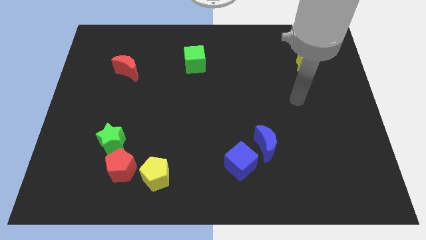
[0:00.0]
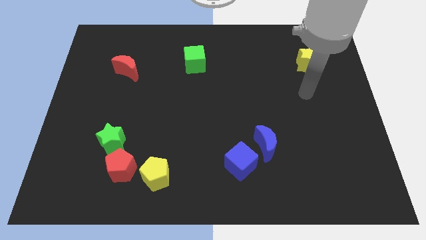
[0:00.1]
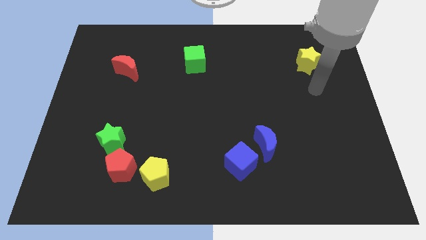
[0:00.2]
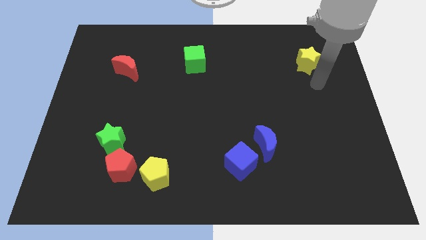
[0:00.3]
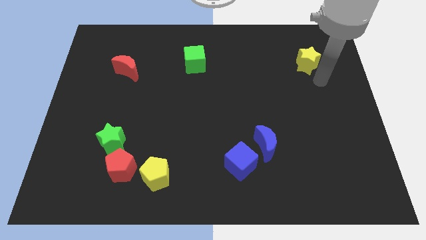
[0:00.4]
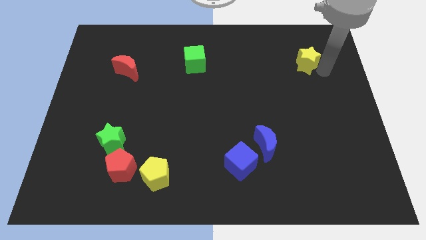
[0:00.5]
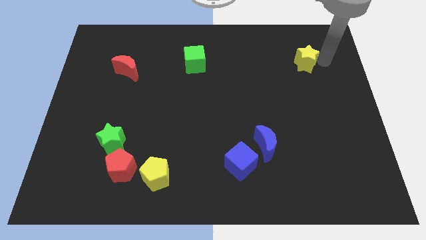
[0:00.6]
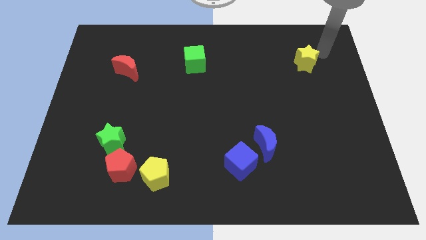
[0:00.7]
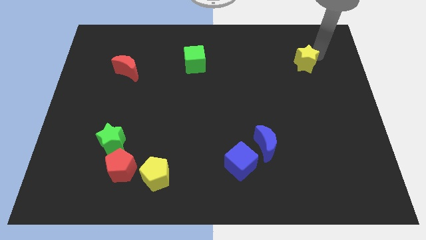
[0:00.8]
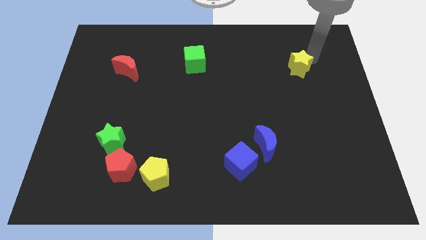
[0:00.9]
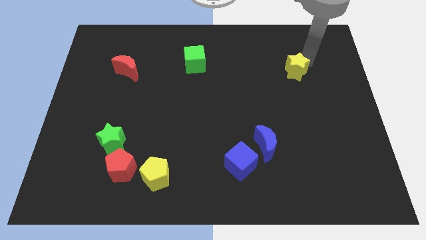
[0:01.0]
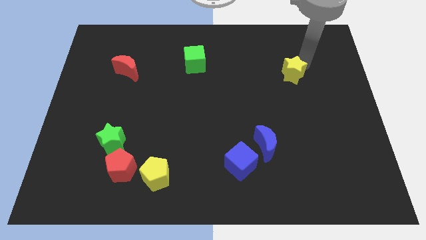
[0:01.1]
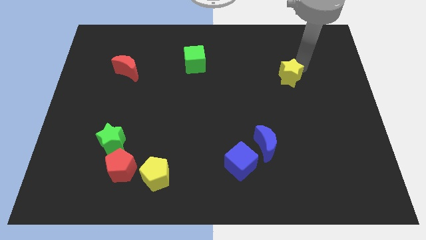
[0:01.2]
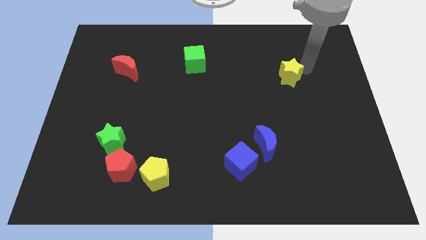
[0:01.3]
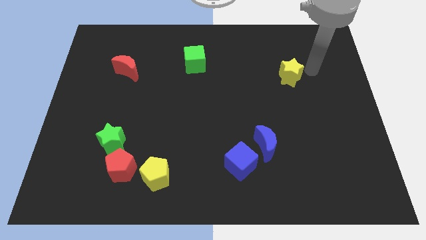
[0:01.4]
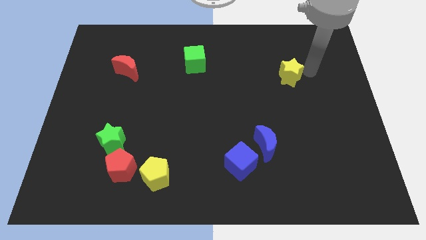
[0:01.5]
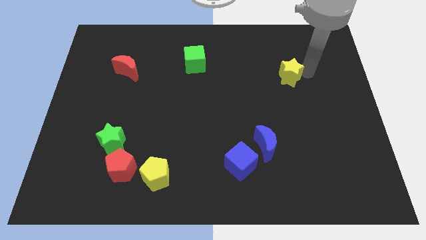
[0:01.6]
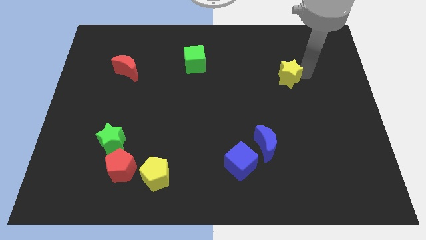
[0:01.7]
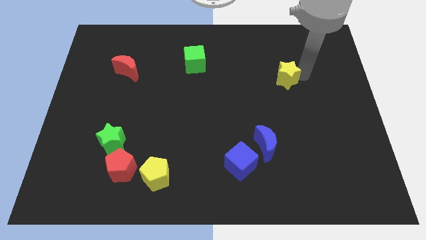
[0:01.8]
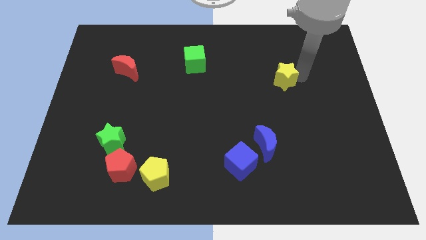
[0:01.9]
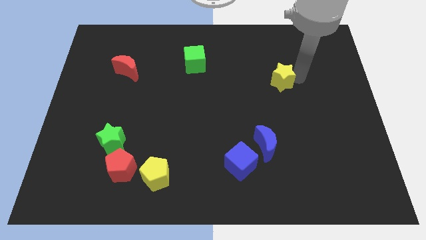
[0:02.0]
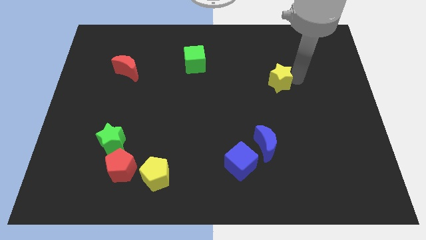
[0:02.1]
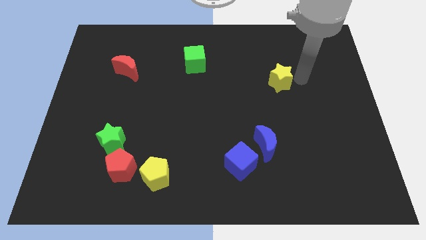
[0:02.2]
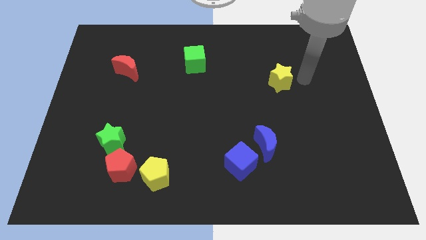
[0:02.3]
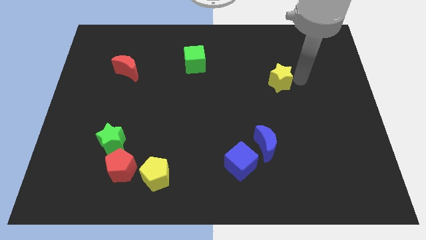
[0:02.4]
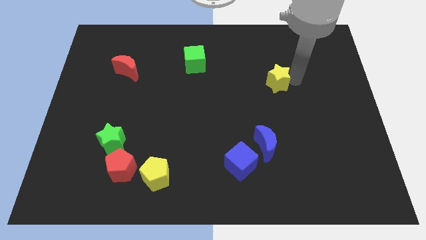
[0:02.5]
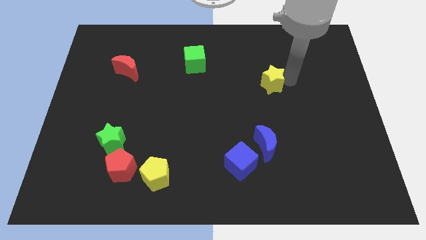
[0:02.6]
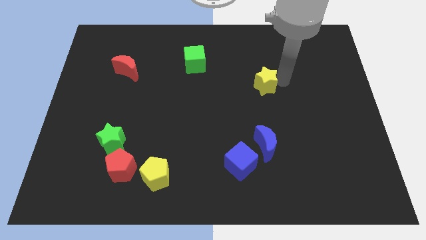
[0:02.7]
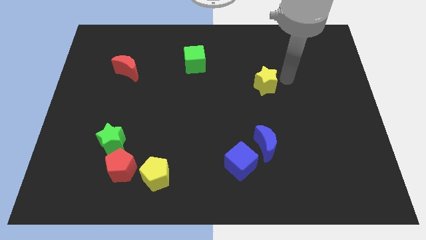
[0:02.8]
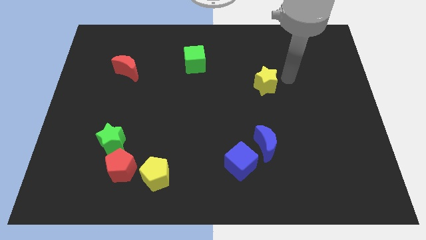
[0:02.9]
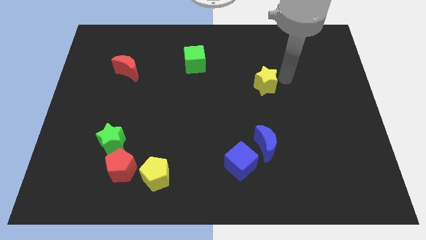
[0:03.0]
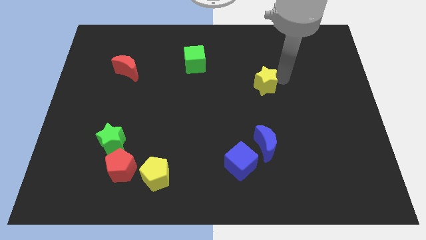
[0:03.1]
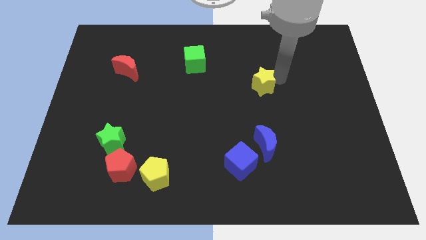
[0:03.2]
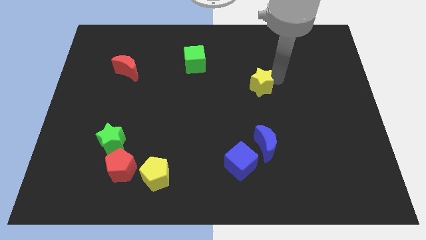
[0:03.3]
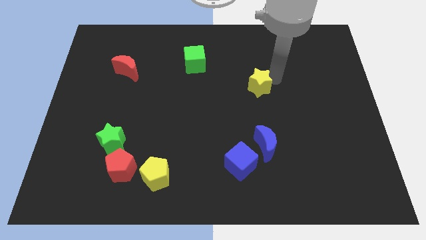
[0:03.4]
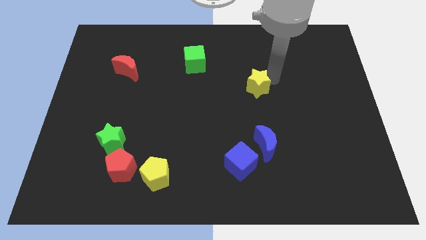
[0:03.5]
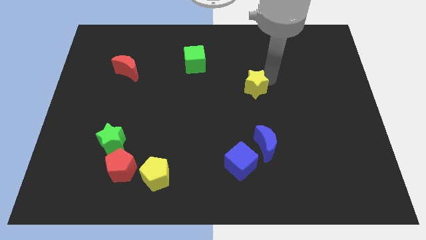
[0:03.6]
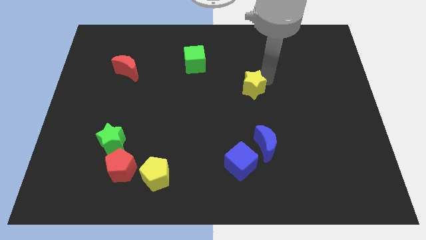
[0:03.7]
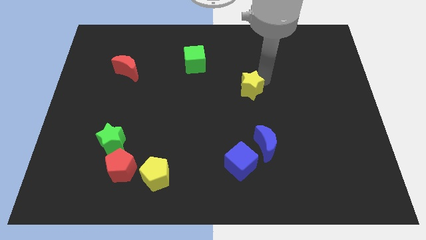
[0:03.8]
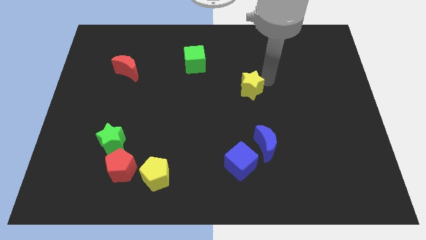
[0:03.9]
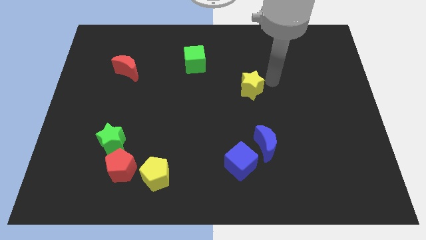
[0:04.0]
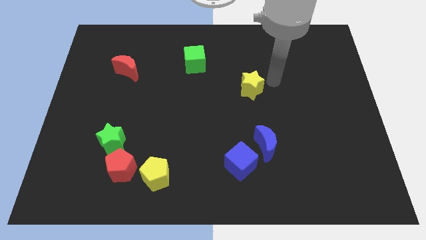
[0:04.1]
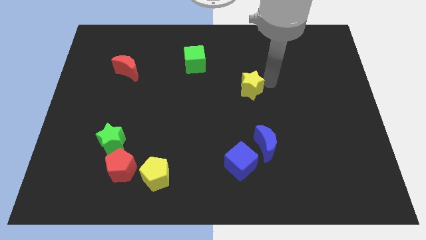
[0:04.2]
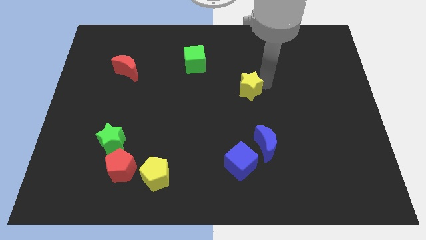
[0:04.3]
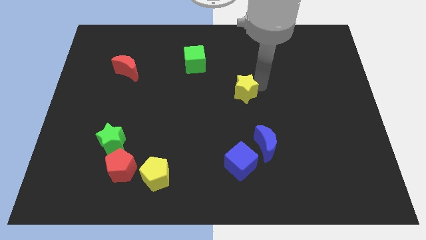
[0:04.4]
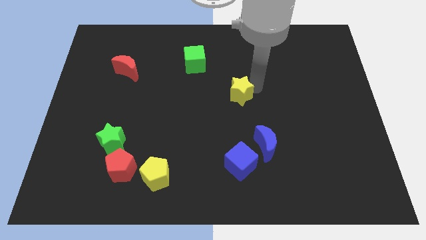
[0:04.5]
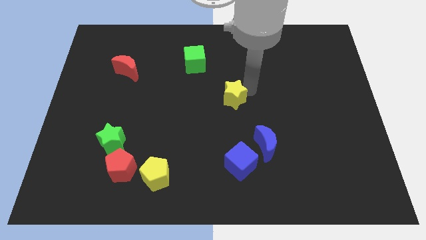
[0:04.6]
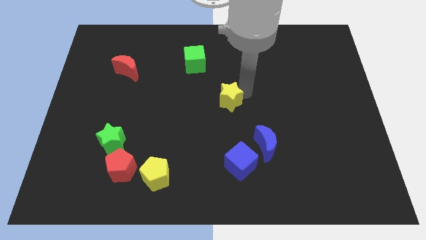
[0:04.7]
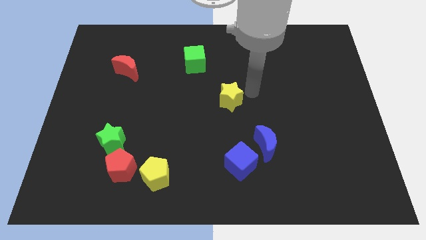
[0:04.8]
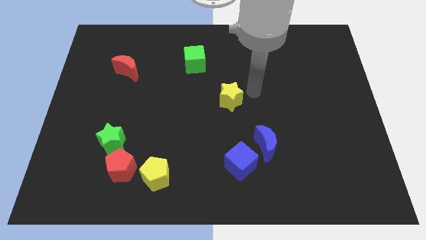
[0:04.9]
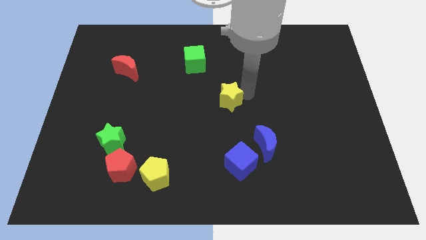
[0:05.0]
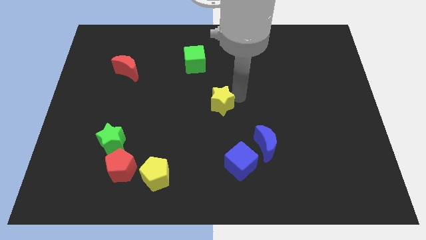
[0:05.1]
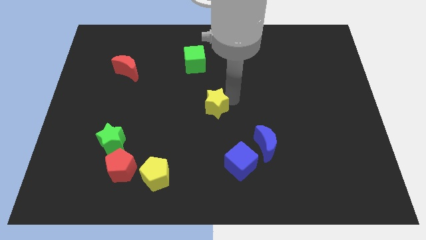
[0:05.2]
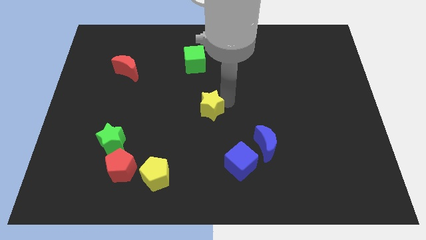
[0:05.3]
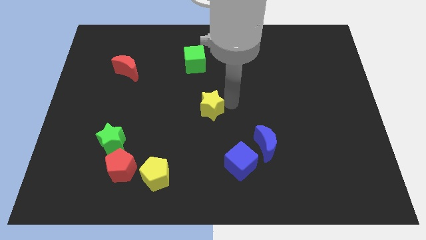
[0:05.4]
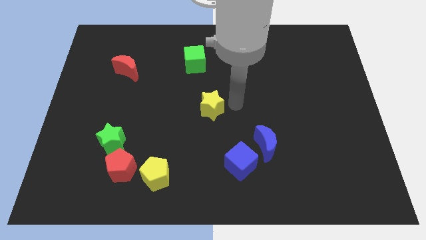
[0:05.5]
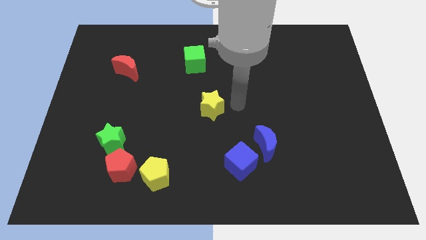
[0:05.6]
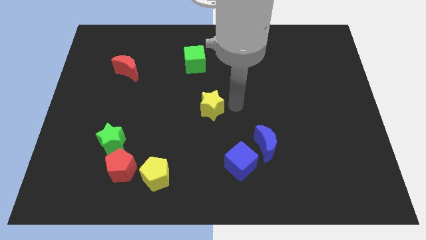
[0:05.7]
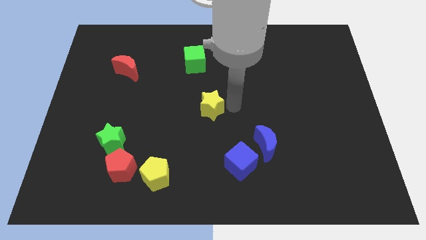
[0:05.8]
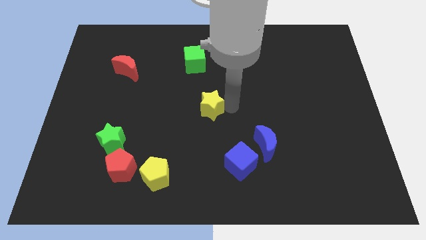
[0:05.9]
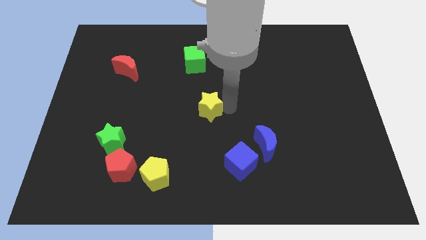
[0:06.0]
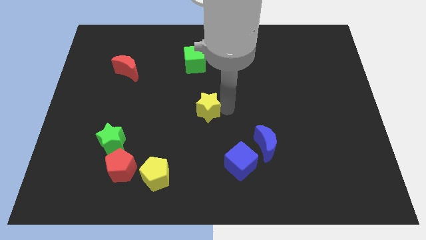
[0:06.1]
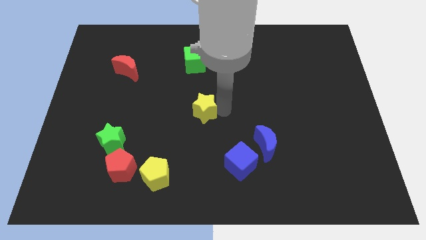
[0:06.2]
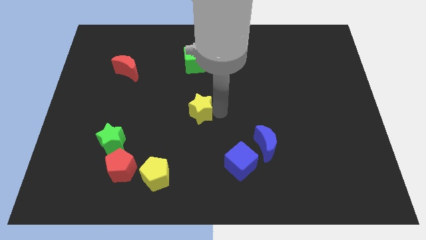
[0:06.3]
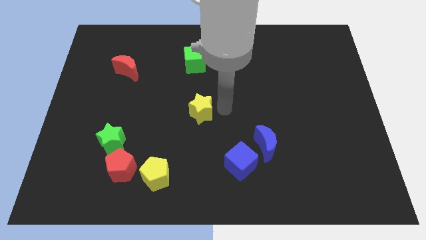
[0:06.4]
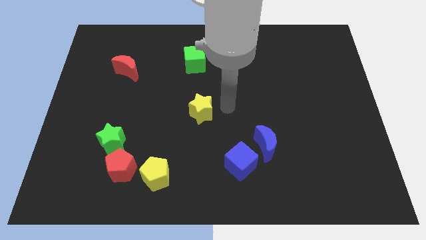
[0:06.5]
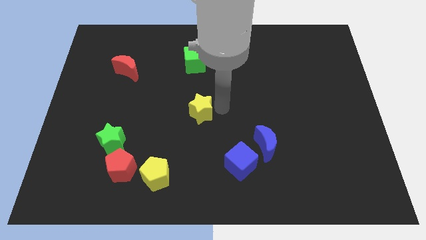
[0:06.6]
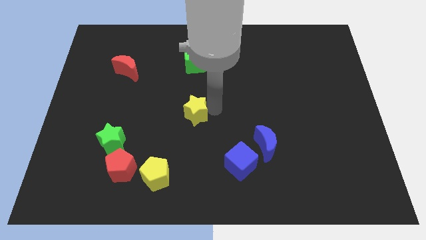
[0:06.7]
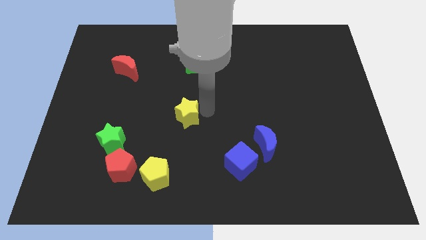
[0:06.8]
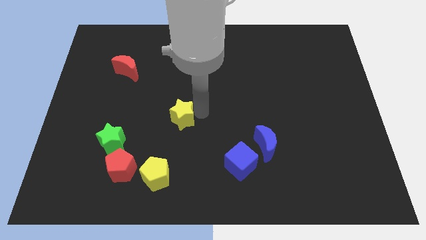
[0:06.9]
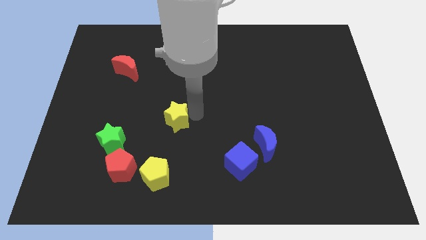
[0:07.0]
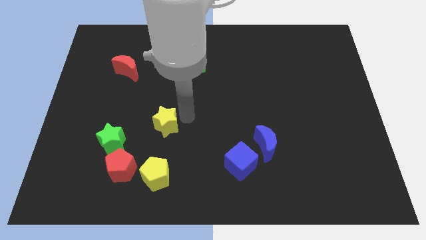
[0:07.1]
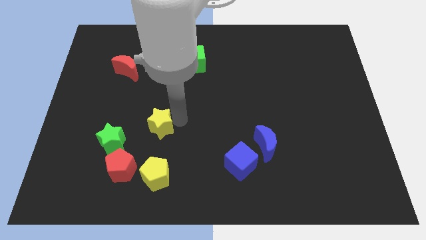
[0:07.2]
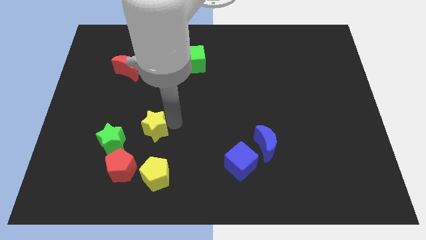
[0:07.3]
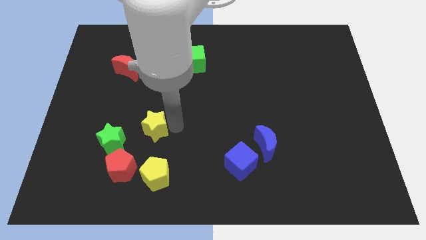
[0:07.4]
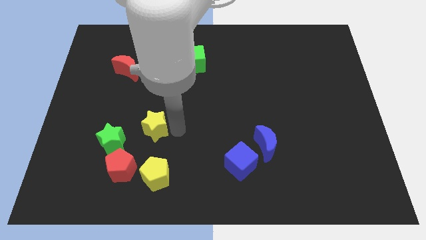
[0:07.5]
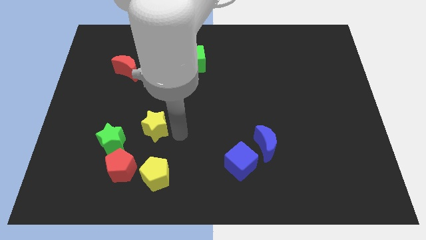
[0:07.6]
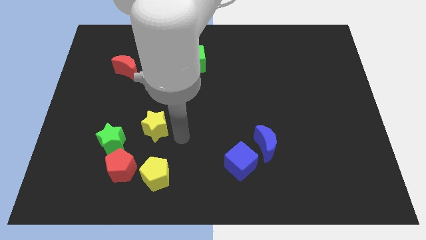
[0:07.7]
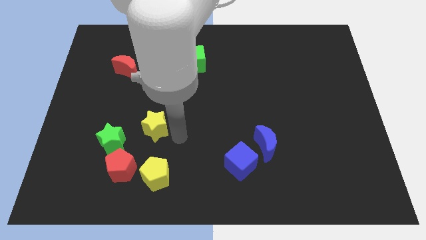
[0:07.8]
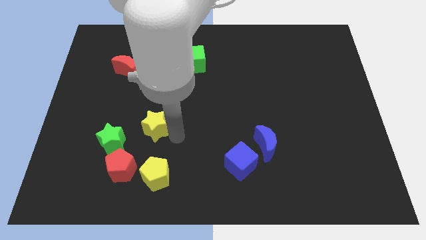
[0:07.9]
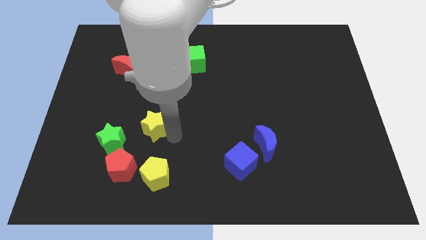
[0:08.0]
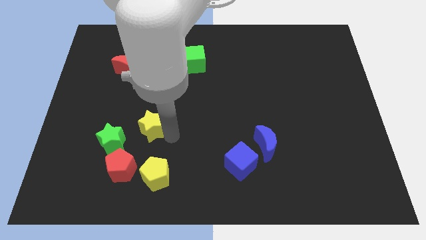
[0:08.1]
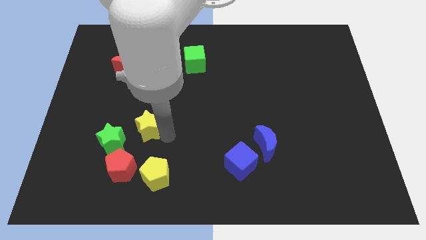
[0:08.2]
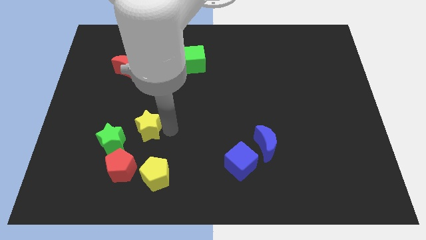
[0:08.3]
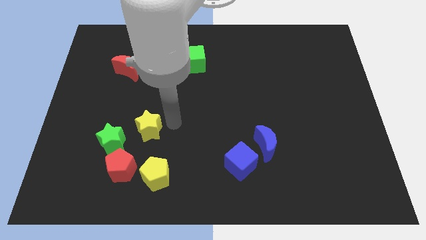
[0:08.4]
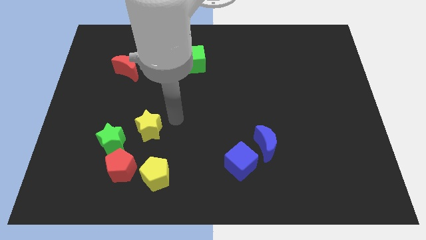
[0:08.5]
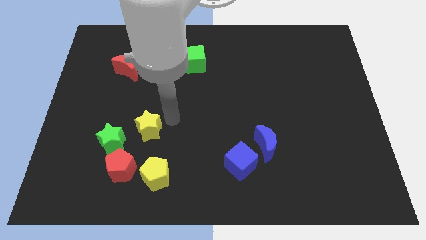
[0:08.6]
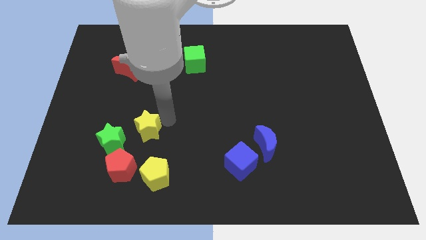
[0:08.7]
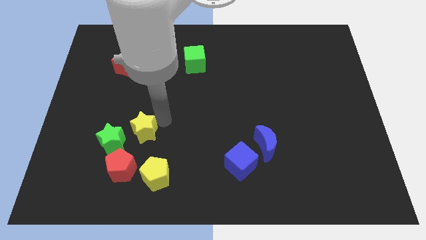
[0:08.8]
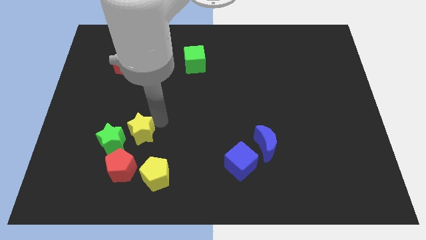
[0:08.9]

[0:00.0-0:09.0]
move the yellow star next to the green star
